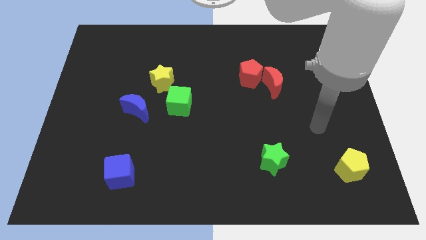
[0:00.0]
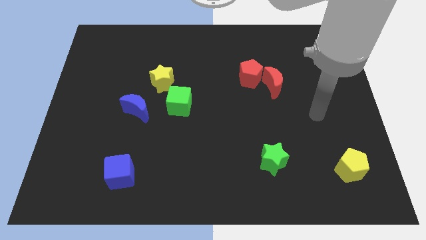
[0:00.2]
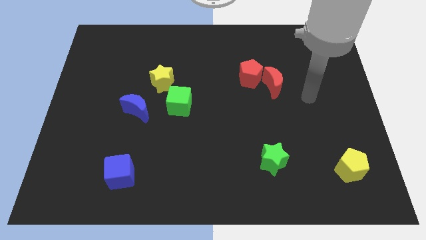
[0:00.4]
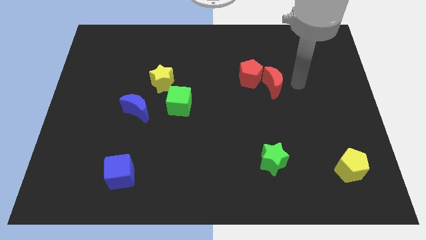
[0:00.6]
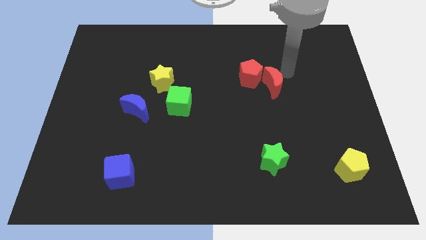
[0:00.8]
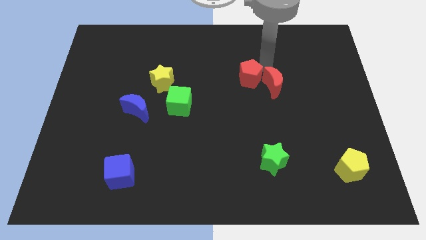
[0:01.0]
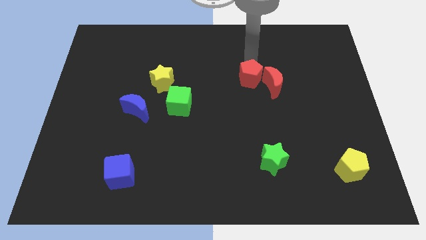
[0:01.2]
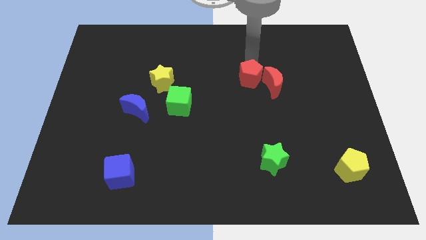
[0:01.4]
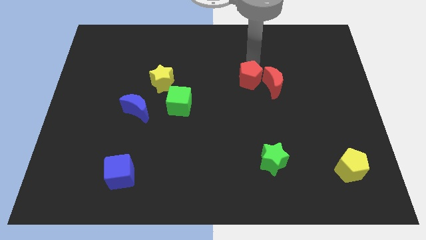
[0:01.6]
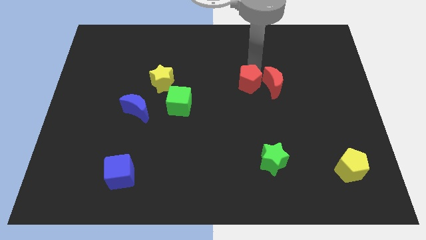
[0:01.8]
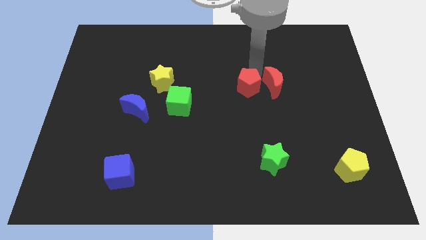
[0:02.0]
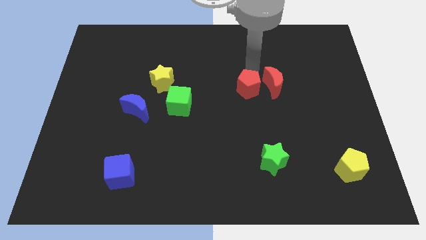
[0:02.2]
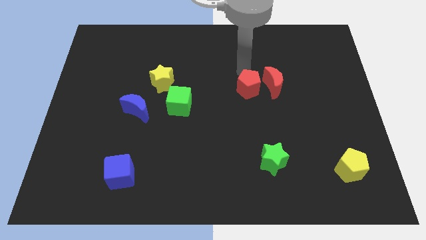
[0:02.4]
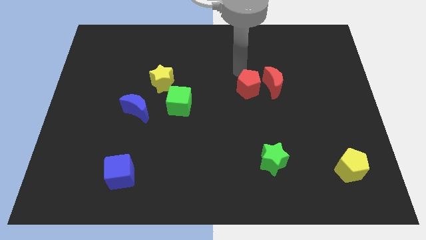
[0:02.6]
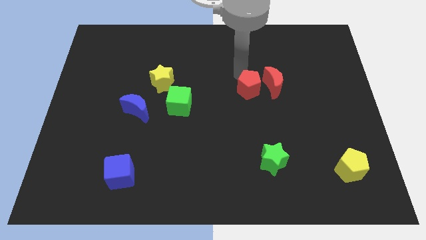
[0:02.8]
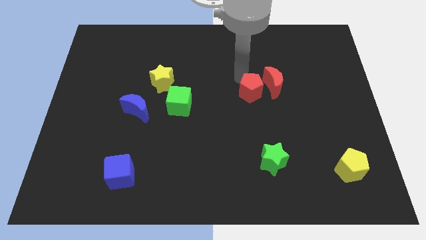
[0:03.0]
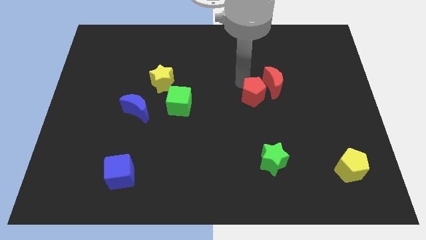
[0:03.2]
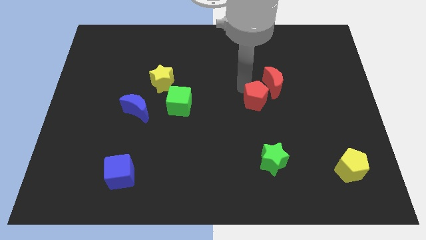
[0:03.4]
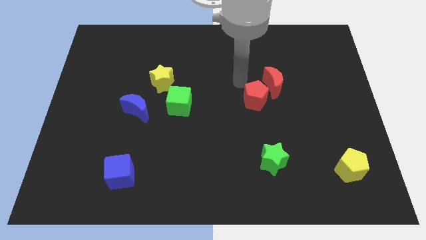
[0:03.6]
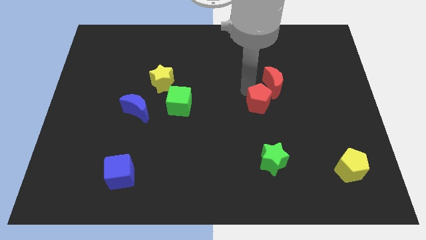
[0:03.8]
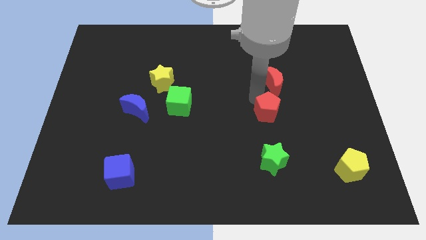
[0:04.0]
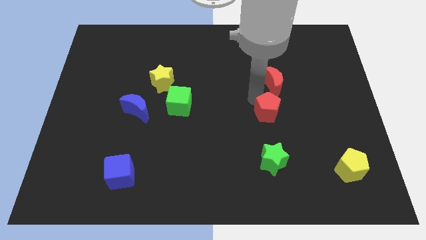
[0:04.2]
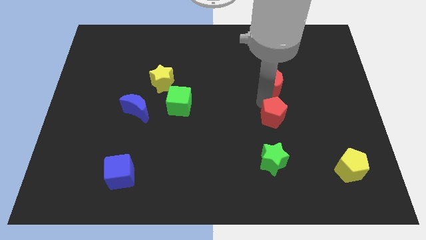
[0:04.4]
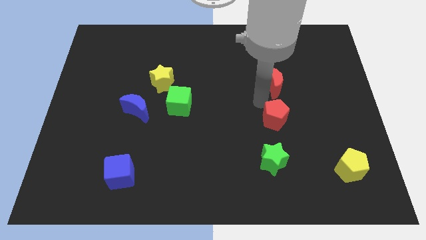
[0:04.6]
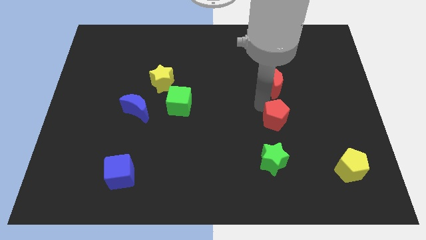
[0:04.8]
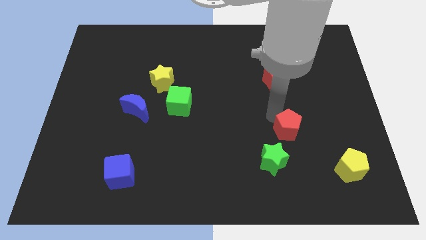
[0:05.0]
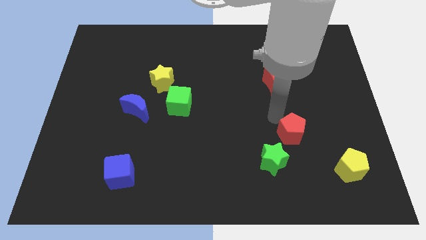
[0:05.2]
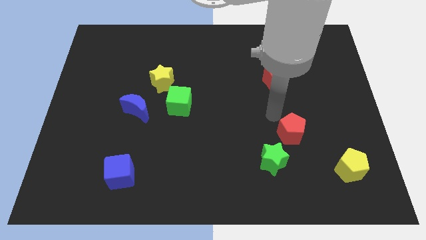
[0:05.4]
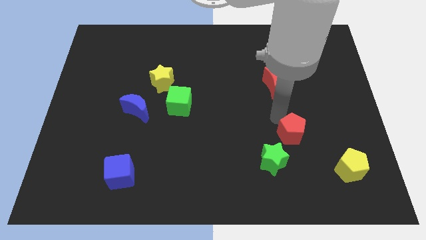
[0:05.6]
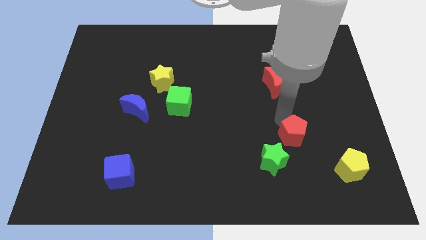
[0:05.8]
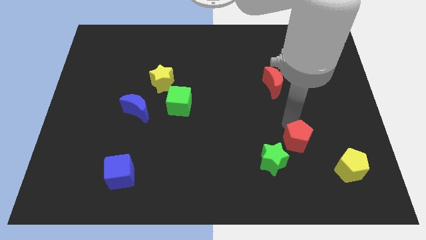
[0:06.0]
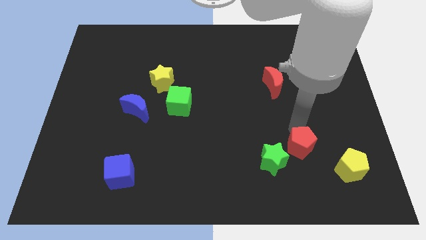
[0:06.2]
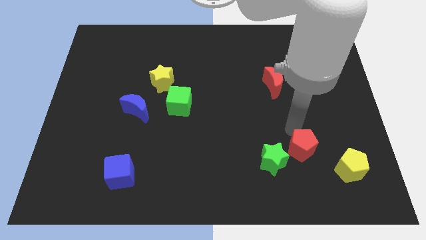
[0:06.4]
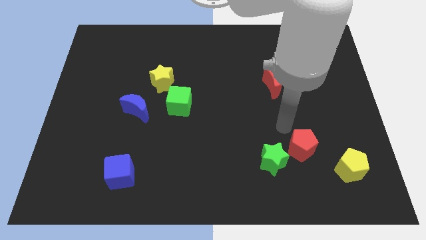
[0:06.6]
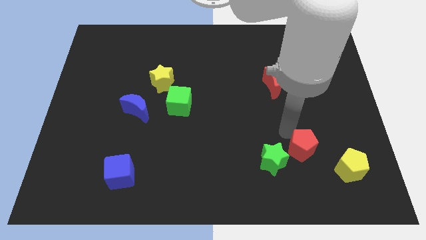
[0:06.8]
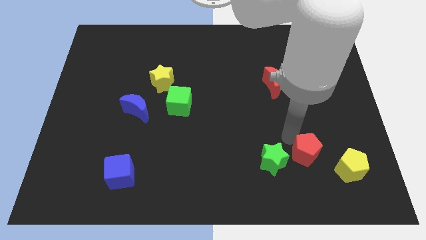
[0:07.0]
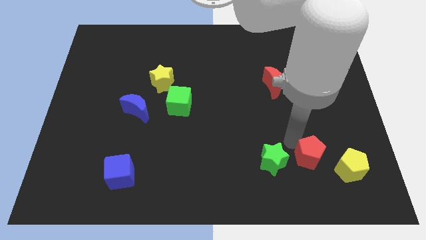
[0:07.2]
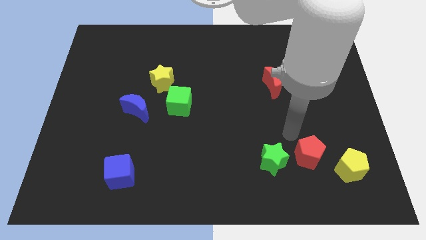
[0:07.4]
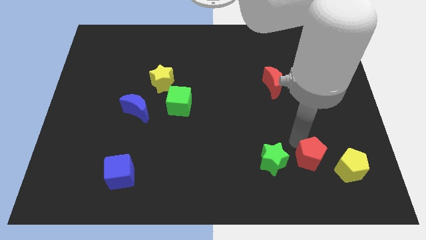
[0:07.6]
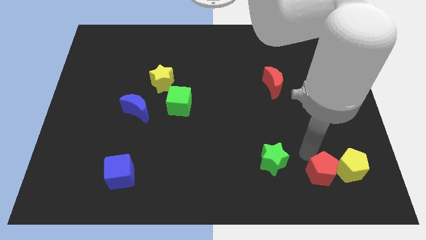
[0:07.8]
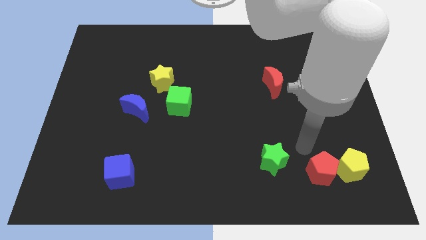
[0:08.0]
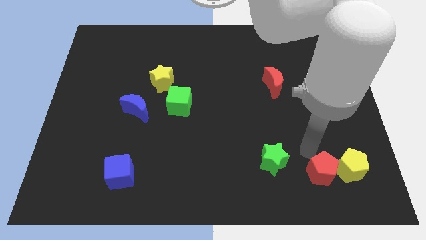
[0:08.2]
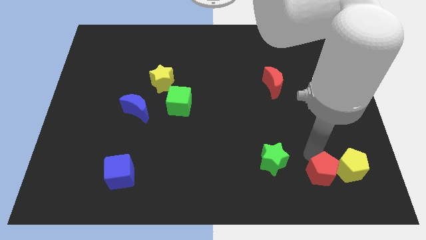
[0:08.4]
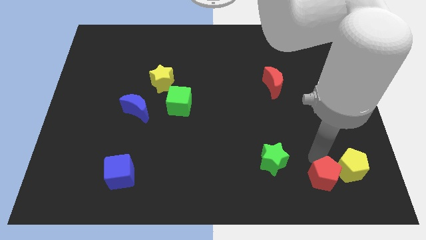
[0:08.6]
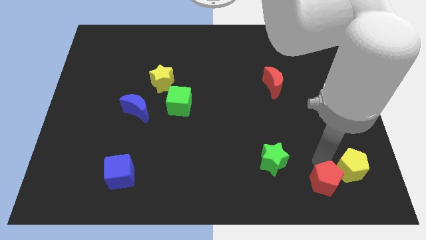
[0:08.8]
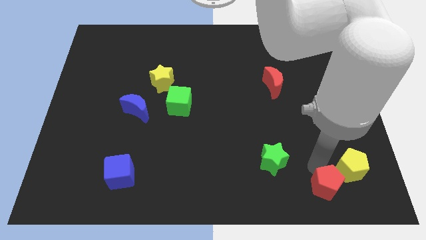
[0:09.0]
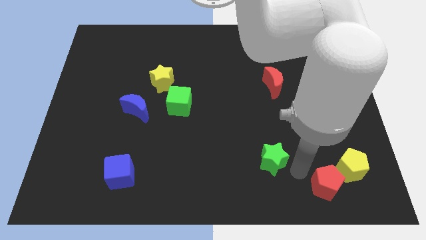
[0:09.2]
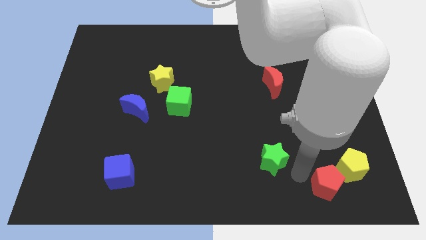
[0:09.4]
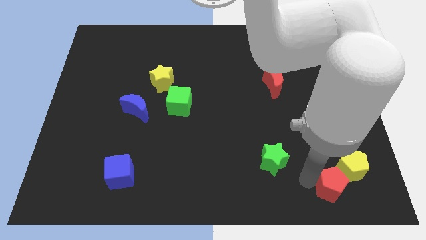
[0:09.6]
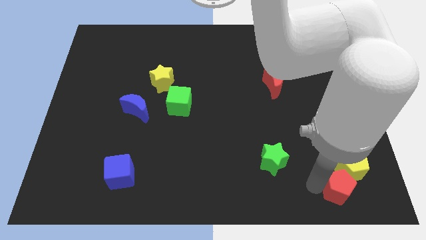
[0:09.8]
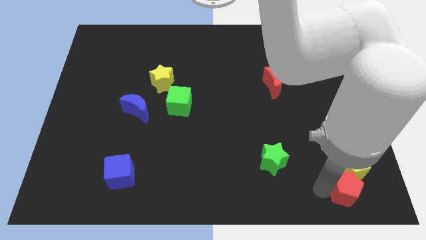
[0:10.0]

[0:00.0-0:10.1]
put the red pentagon to the bottom right

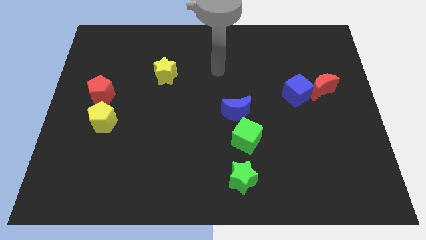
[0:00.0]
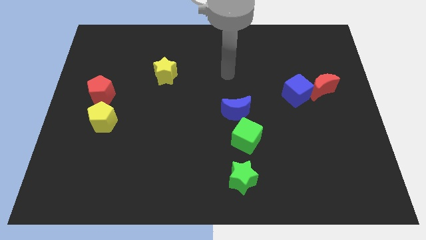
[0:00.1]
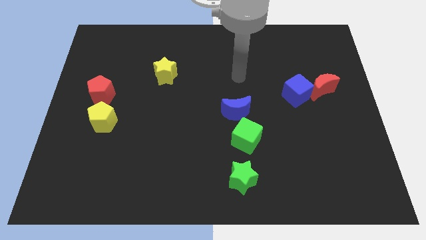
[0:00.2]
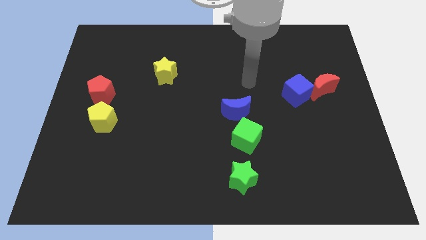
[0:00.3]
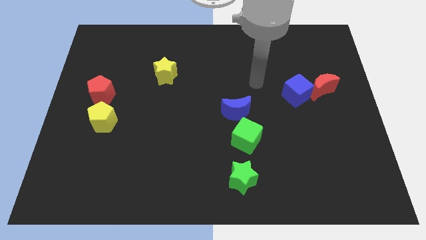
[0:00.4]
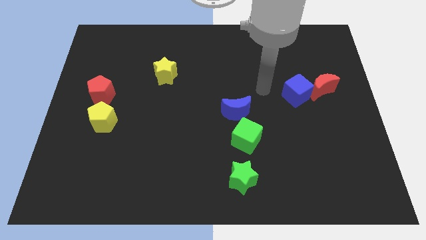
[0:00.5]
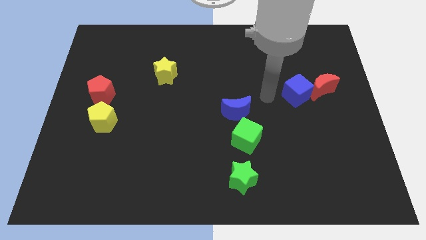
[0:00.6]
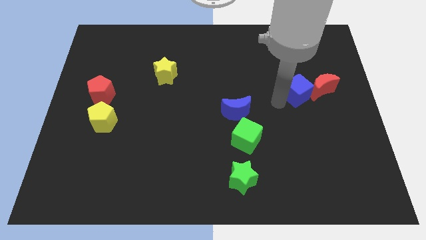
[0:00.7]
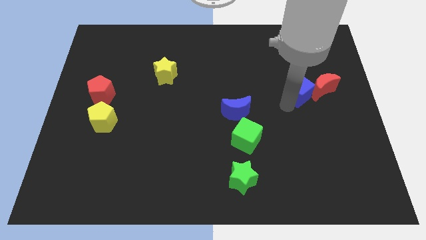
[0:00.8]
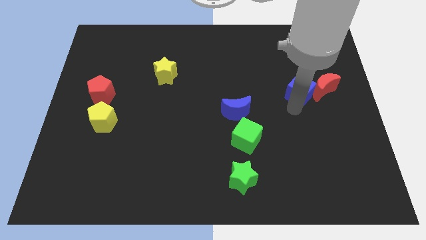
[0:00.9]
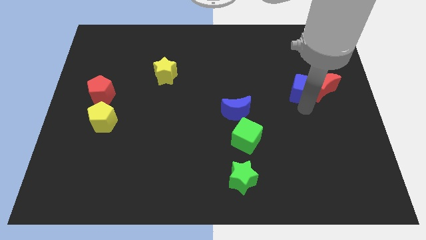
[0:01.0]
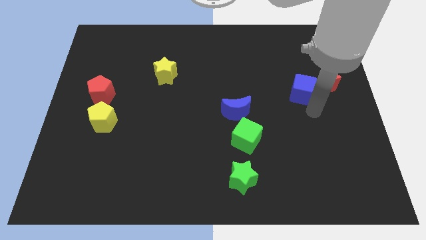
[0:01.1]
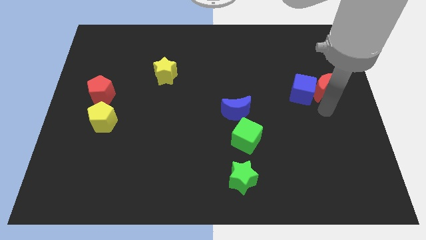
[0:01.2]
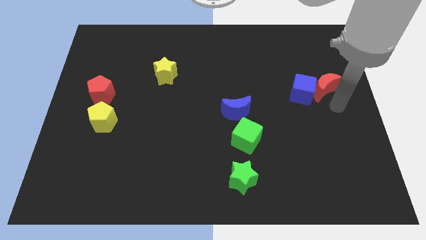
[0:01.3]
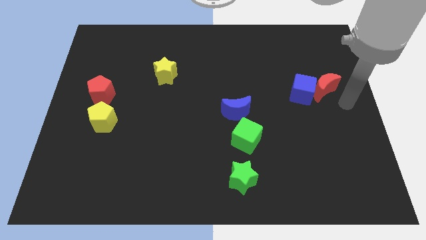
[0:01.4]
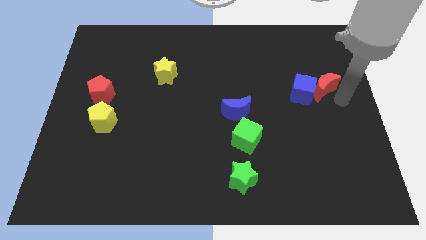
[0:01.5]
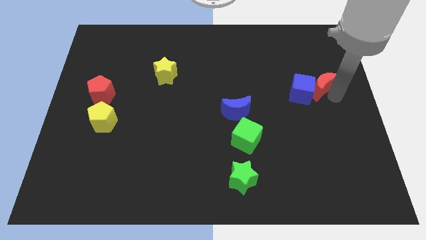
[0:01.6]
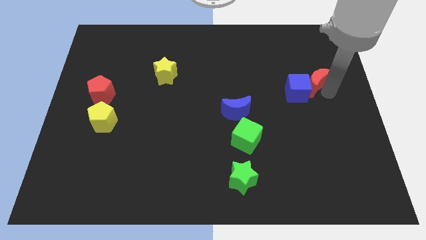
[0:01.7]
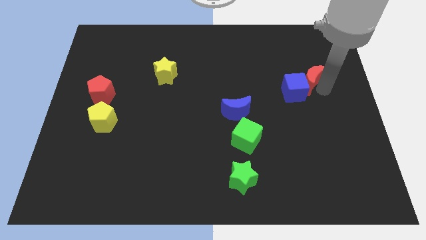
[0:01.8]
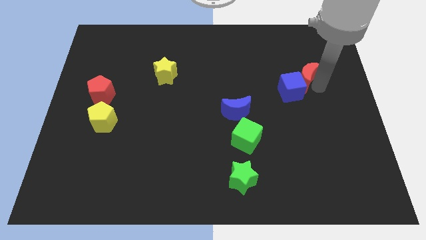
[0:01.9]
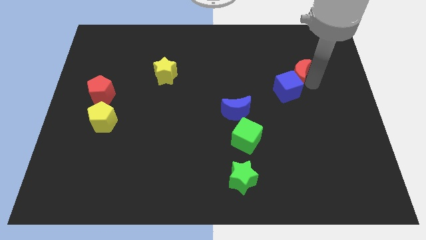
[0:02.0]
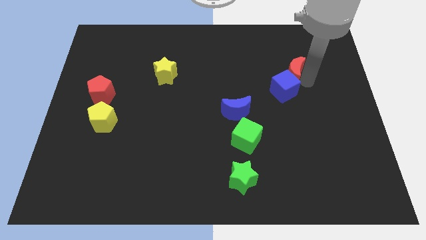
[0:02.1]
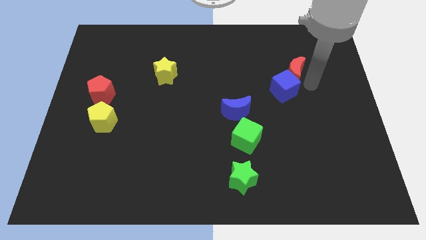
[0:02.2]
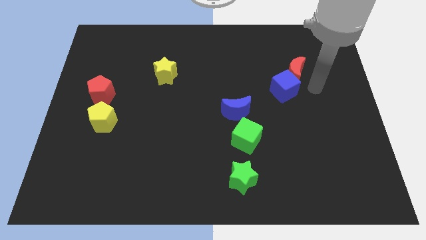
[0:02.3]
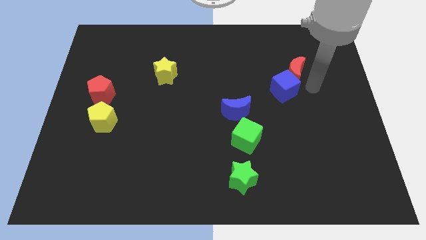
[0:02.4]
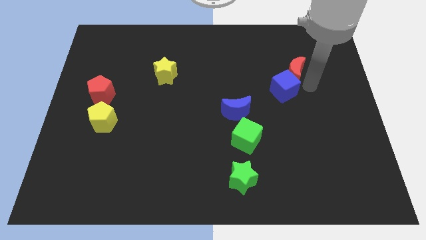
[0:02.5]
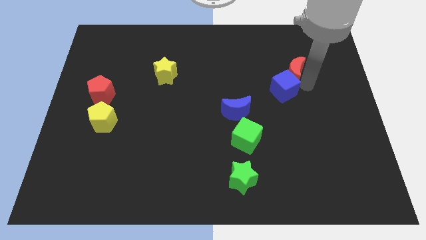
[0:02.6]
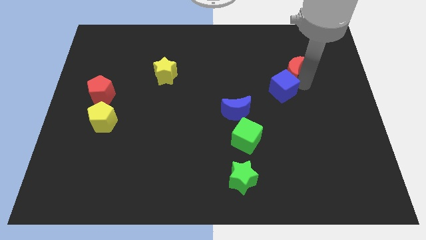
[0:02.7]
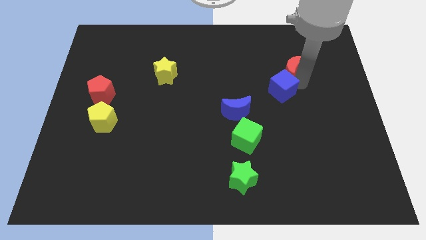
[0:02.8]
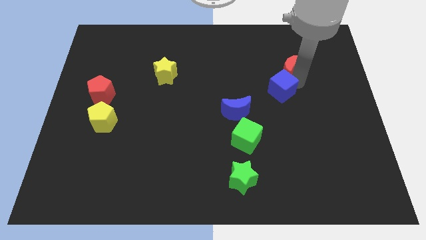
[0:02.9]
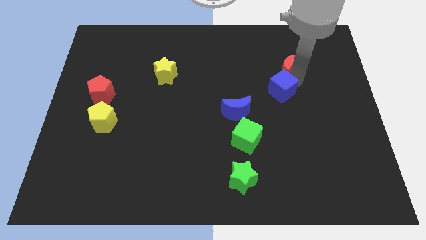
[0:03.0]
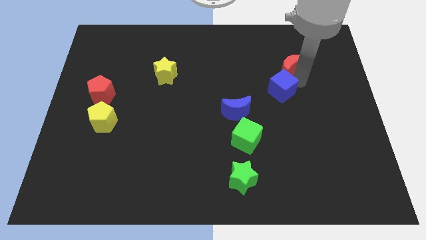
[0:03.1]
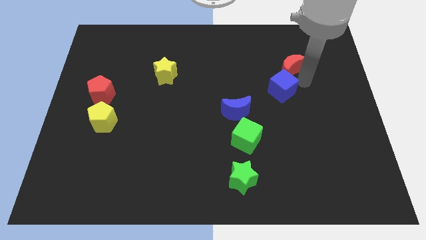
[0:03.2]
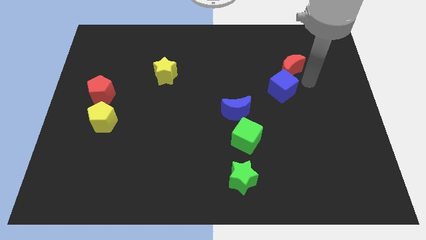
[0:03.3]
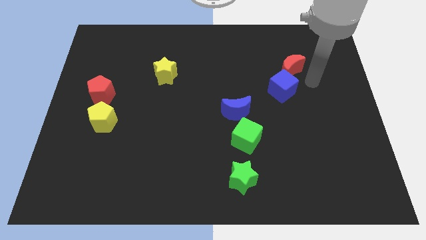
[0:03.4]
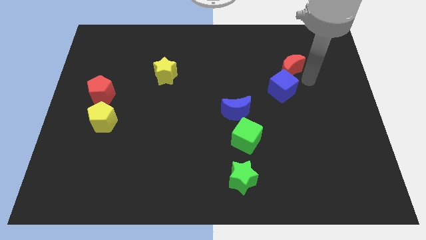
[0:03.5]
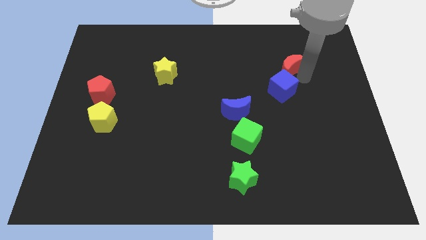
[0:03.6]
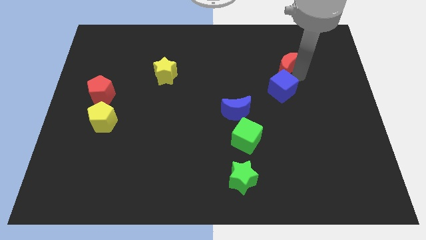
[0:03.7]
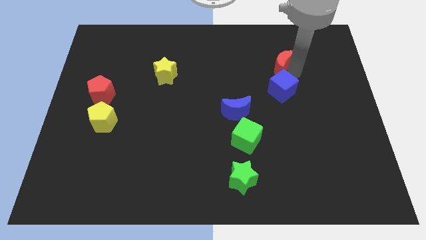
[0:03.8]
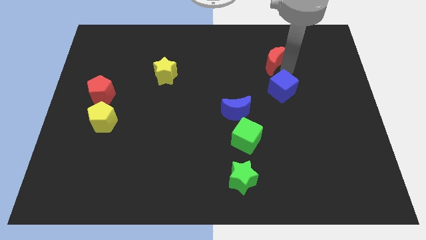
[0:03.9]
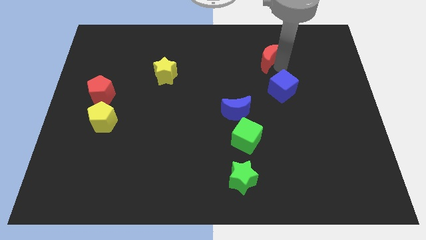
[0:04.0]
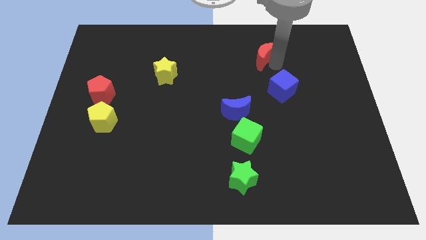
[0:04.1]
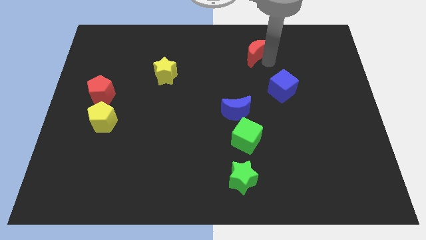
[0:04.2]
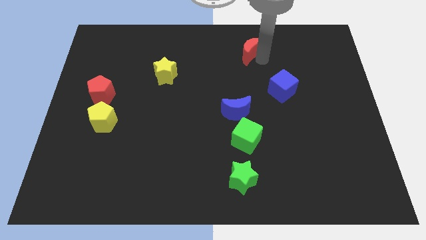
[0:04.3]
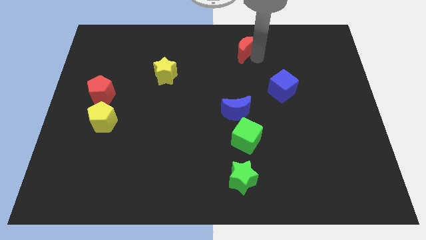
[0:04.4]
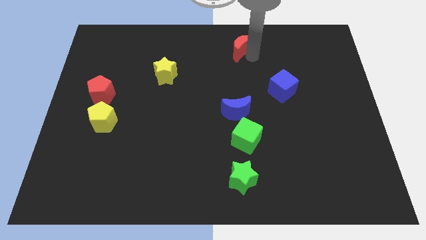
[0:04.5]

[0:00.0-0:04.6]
put the red moon to the towards your base
